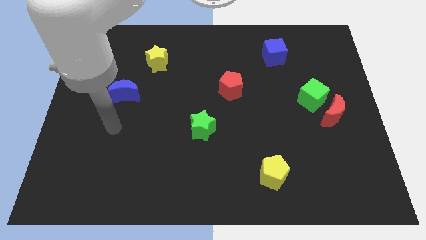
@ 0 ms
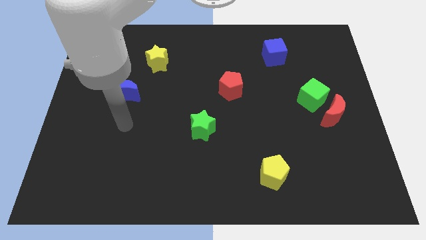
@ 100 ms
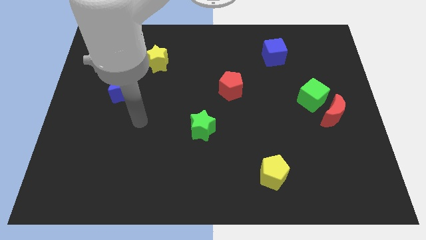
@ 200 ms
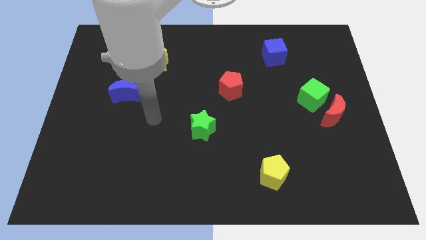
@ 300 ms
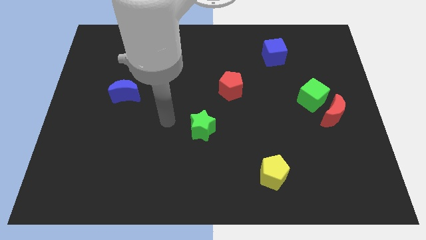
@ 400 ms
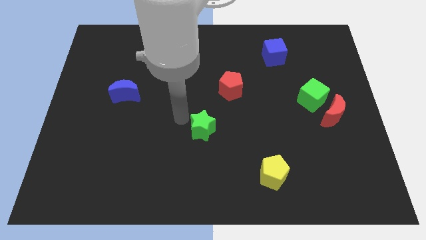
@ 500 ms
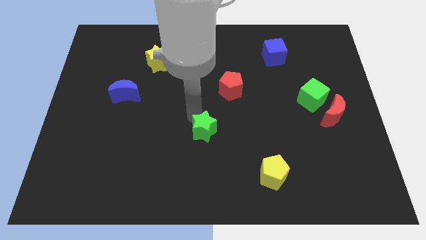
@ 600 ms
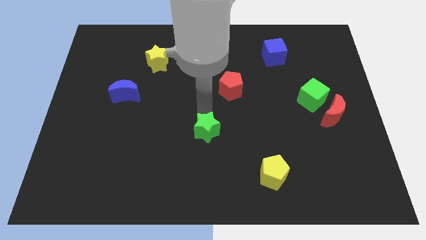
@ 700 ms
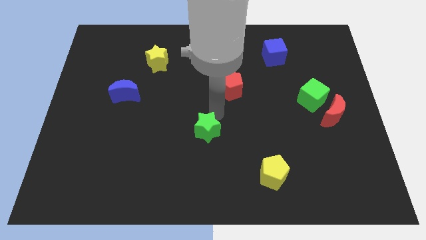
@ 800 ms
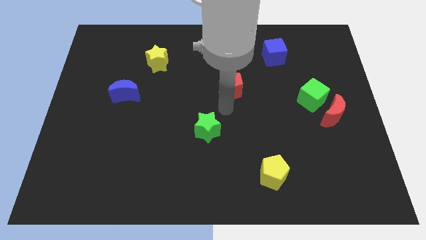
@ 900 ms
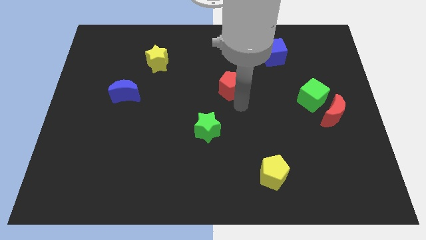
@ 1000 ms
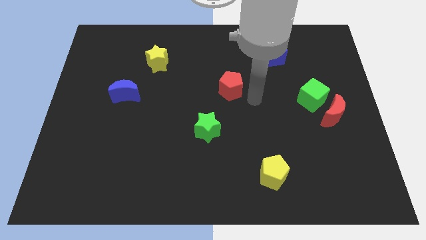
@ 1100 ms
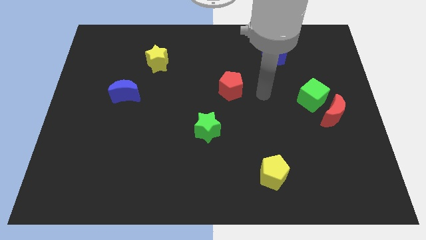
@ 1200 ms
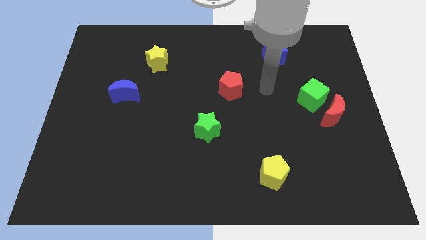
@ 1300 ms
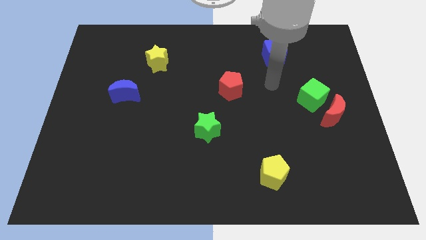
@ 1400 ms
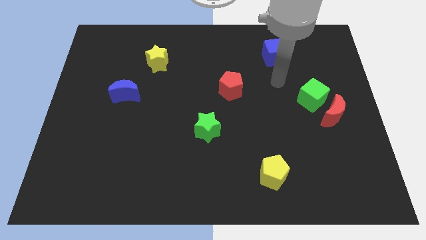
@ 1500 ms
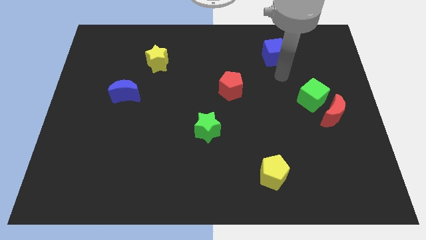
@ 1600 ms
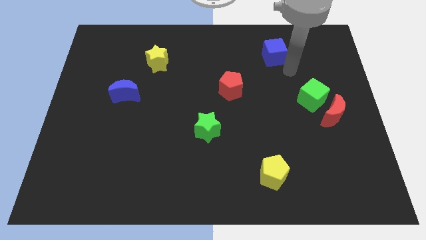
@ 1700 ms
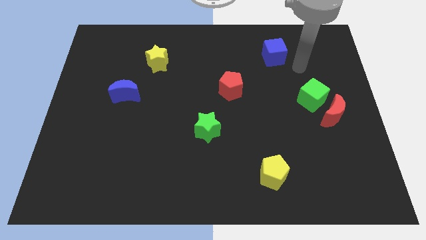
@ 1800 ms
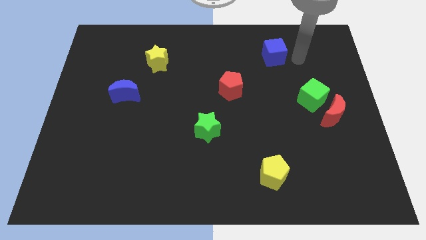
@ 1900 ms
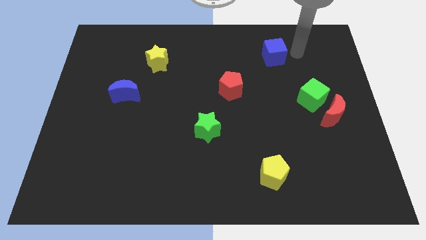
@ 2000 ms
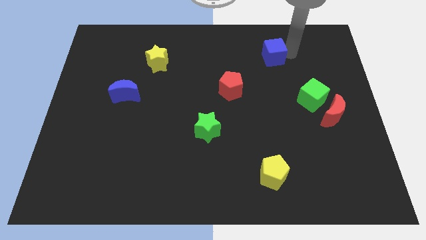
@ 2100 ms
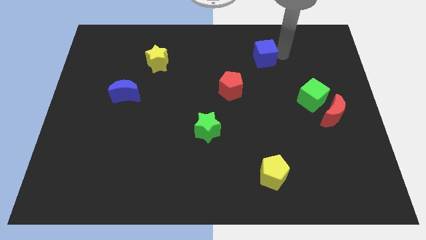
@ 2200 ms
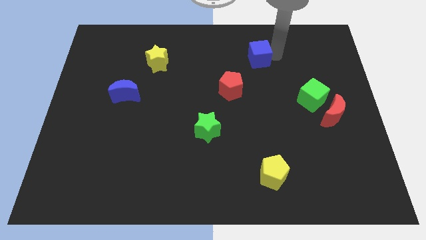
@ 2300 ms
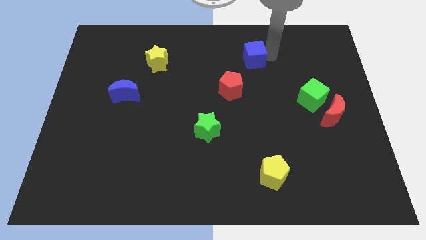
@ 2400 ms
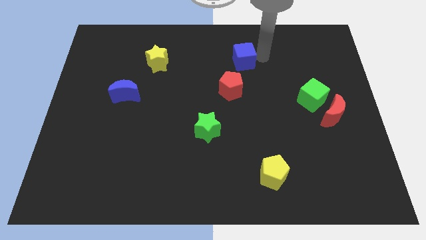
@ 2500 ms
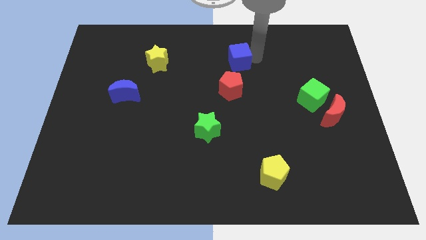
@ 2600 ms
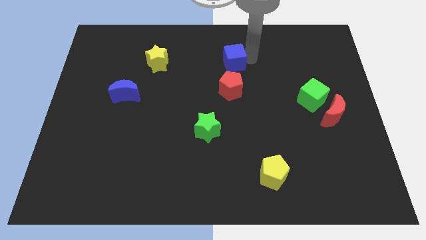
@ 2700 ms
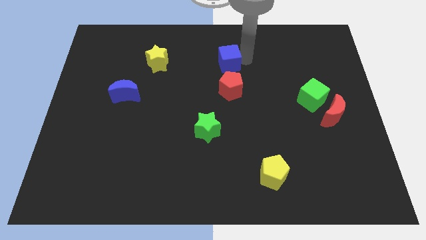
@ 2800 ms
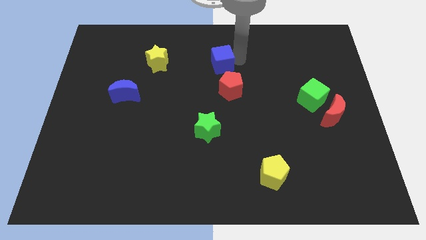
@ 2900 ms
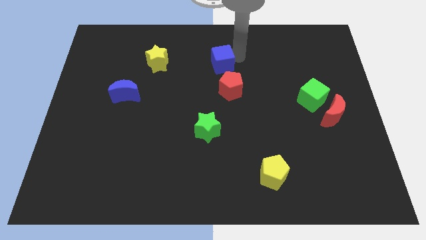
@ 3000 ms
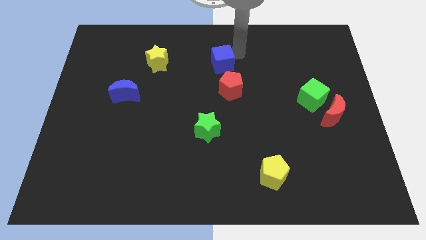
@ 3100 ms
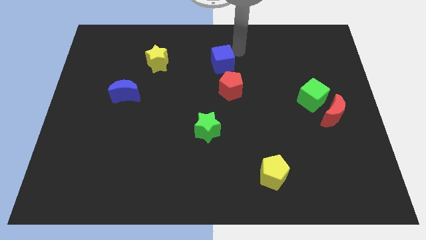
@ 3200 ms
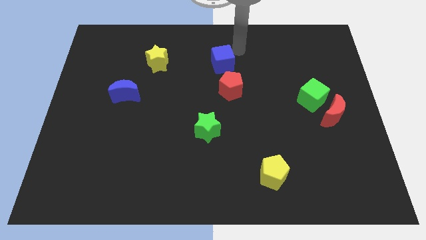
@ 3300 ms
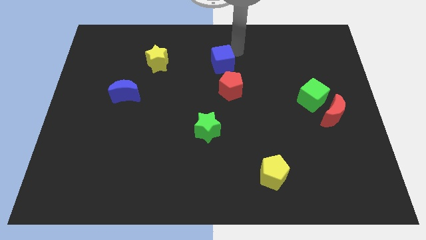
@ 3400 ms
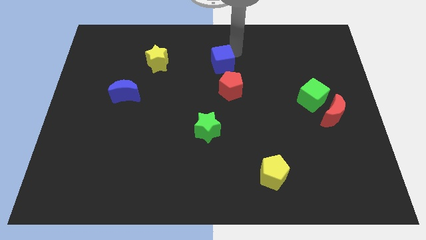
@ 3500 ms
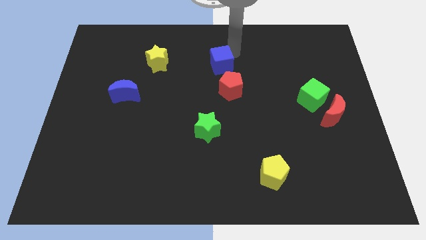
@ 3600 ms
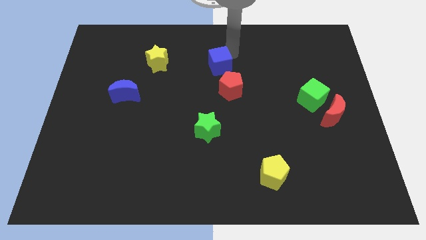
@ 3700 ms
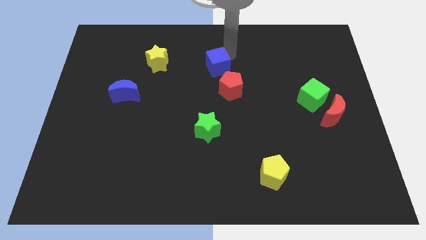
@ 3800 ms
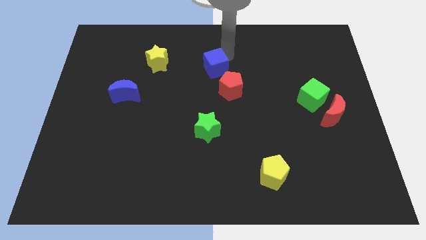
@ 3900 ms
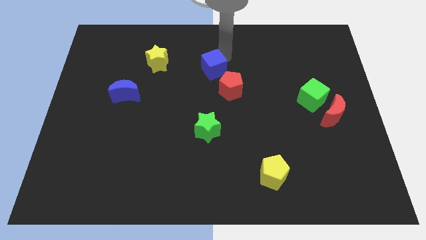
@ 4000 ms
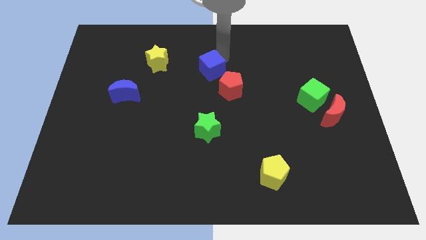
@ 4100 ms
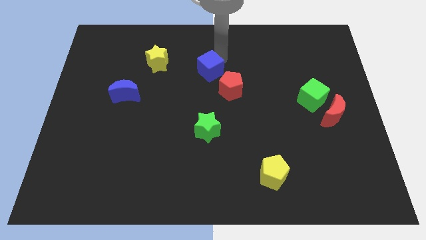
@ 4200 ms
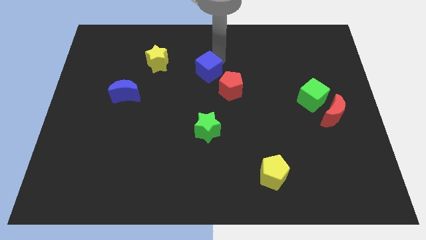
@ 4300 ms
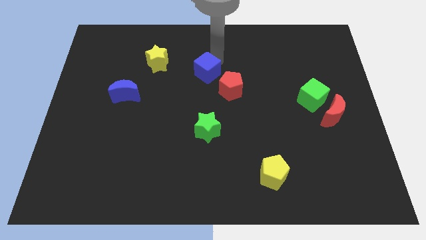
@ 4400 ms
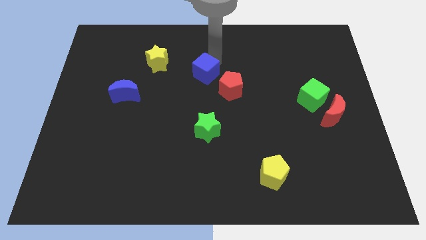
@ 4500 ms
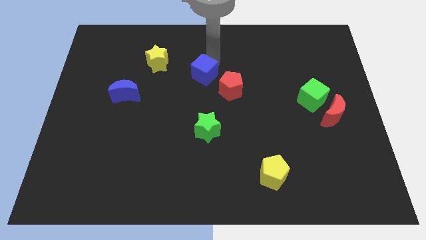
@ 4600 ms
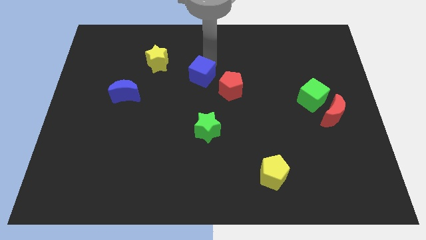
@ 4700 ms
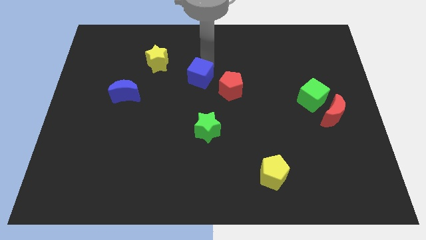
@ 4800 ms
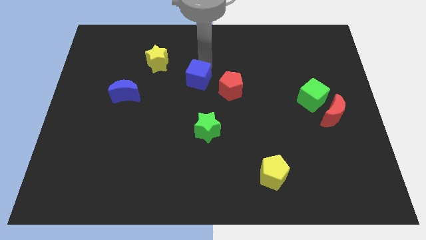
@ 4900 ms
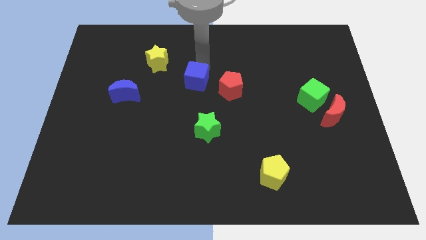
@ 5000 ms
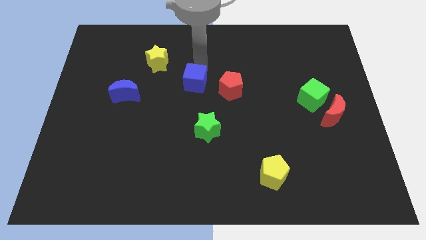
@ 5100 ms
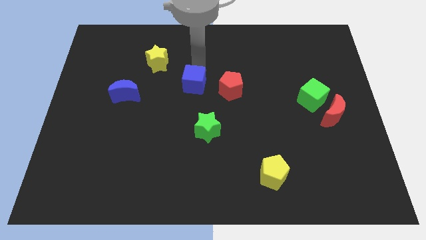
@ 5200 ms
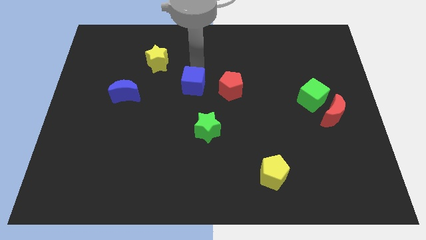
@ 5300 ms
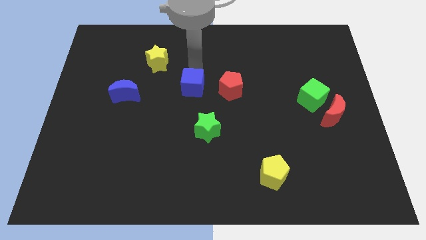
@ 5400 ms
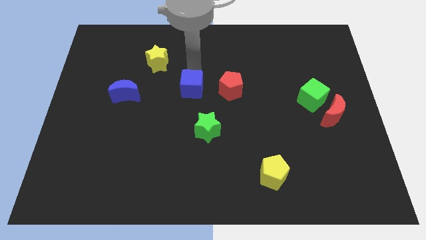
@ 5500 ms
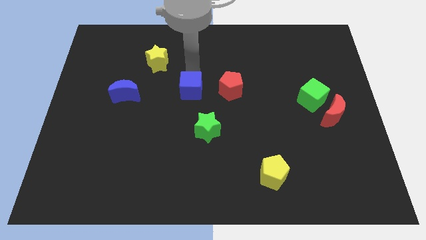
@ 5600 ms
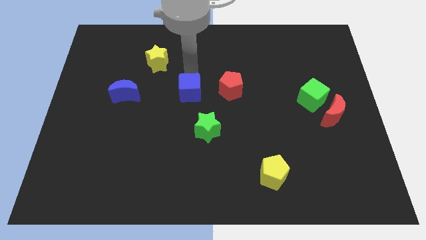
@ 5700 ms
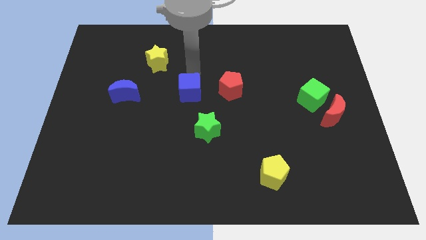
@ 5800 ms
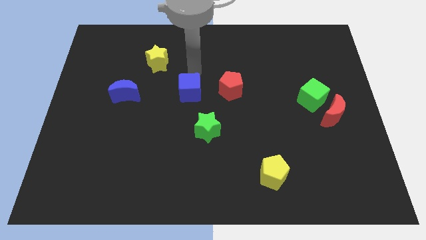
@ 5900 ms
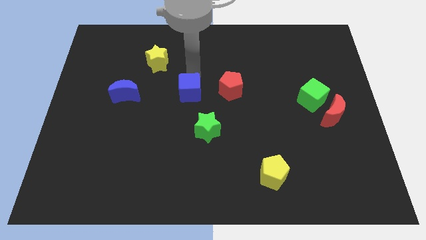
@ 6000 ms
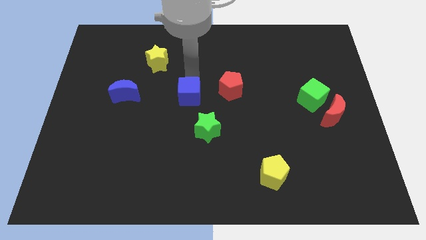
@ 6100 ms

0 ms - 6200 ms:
put the blue cube to the top left of the green star
